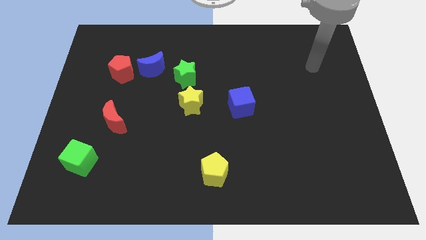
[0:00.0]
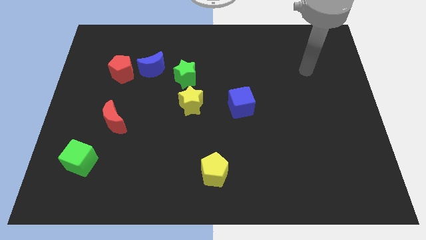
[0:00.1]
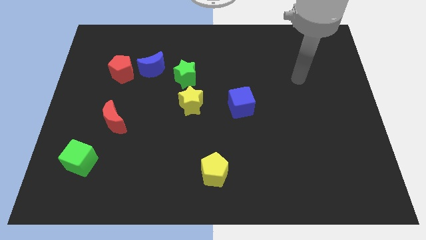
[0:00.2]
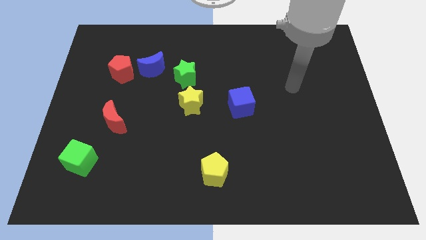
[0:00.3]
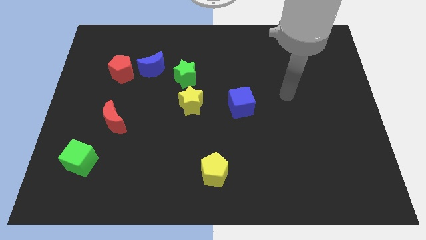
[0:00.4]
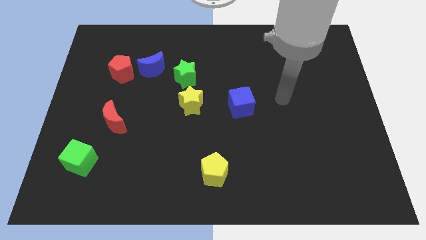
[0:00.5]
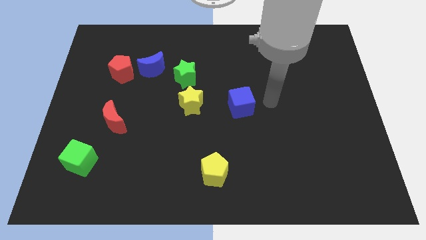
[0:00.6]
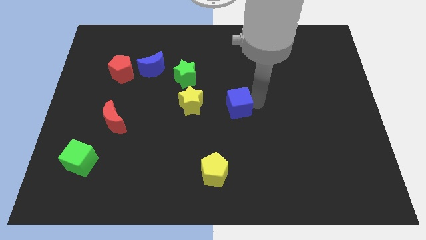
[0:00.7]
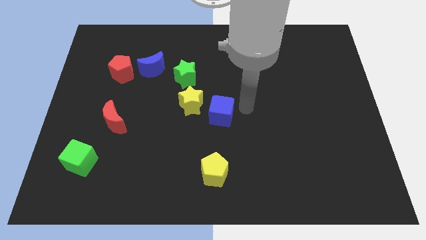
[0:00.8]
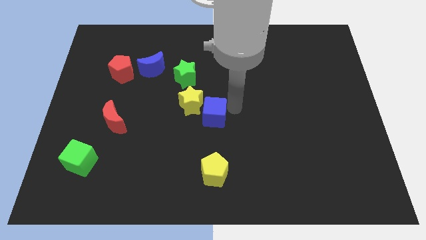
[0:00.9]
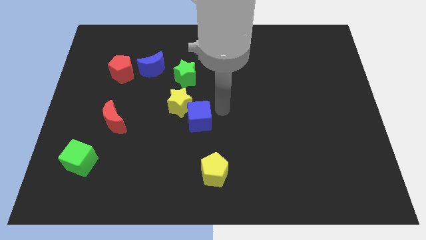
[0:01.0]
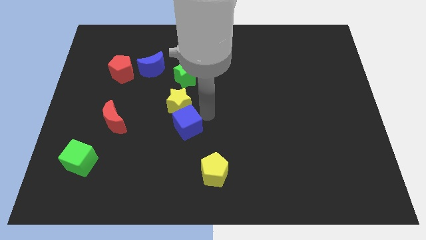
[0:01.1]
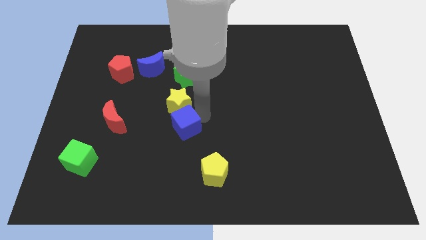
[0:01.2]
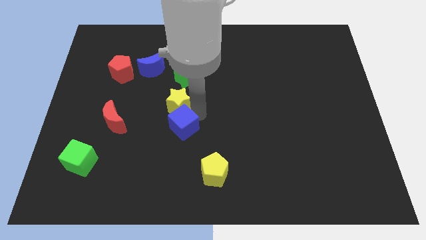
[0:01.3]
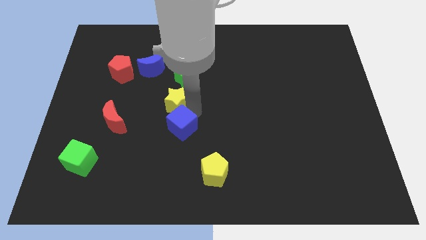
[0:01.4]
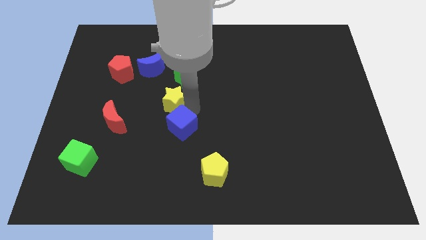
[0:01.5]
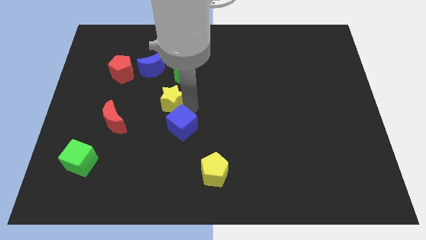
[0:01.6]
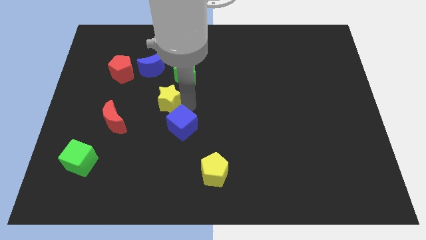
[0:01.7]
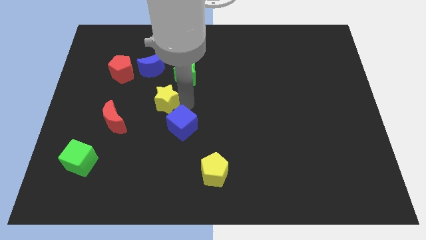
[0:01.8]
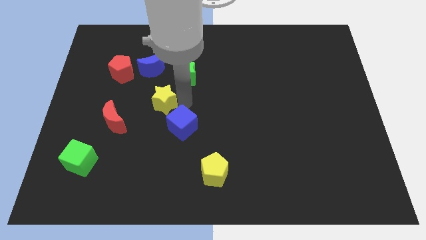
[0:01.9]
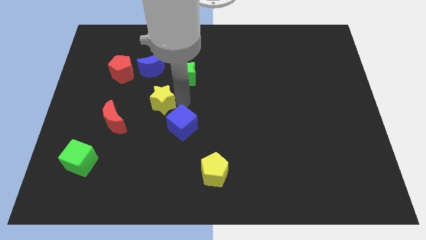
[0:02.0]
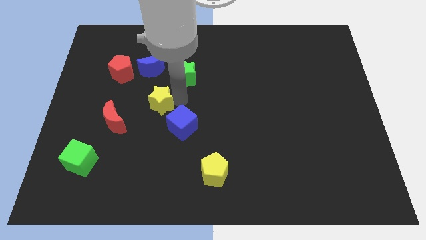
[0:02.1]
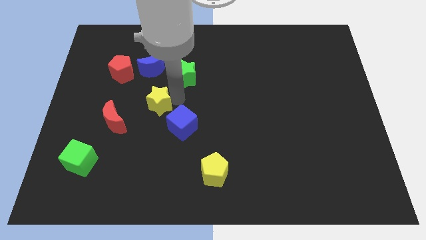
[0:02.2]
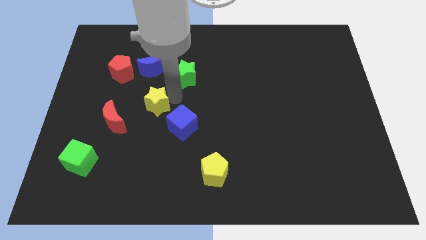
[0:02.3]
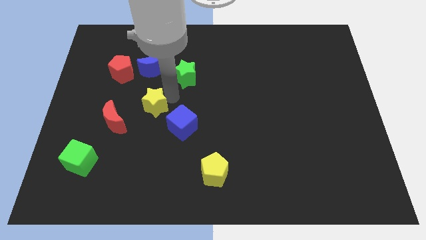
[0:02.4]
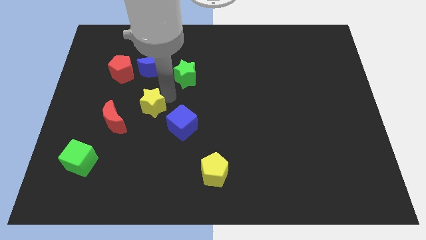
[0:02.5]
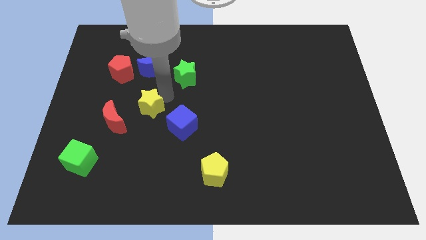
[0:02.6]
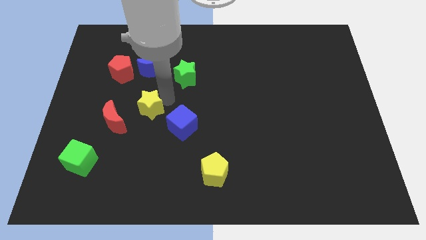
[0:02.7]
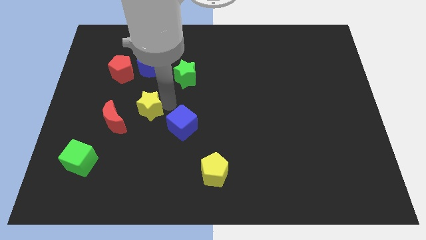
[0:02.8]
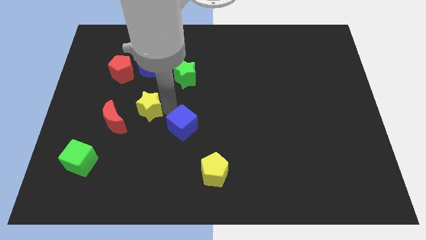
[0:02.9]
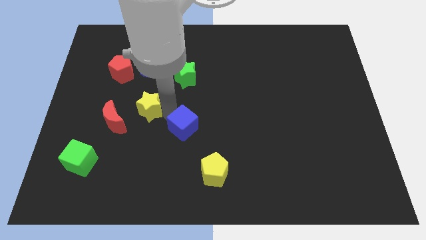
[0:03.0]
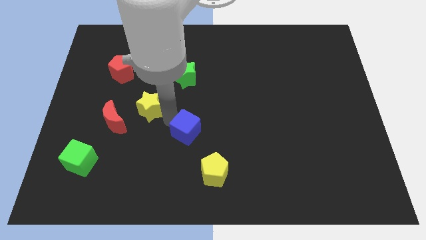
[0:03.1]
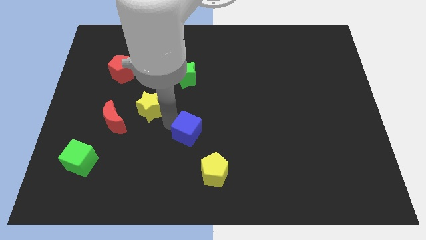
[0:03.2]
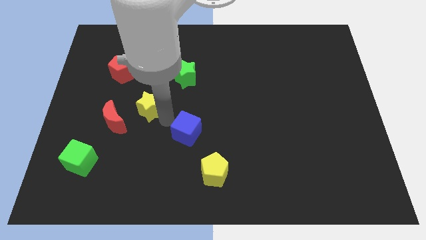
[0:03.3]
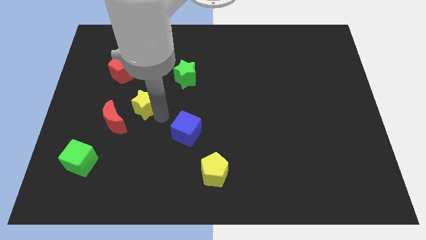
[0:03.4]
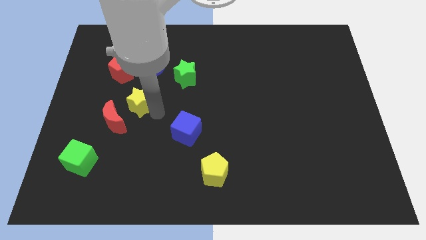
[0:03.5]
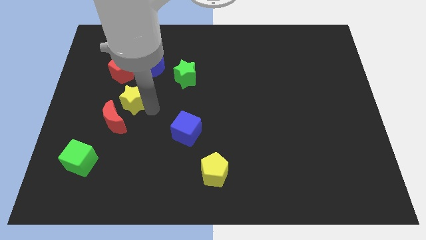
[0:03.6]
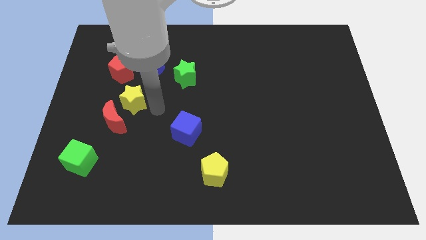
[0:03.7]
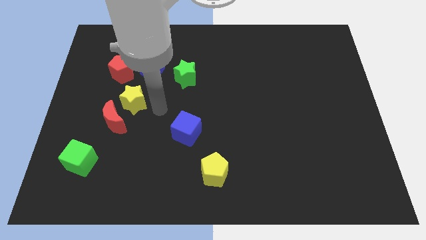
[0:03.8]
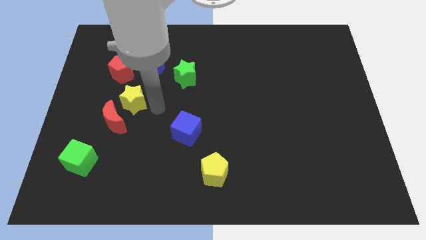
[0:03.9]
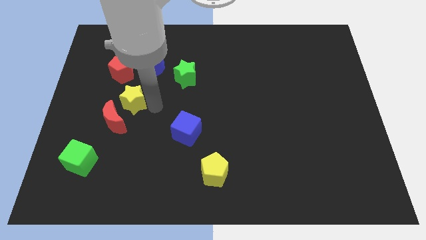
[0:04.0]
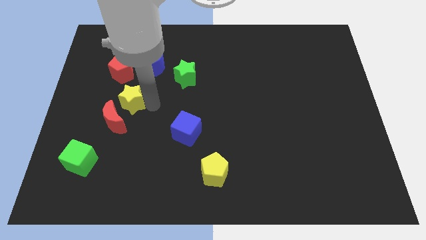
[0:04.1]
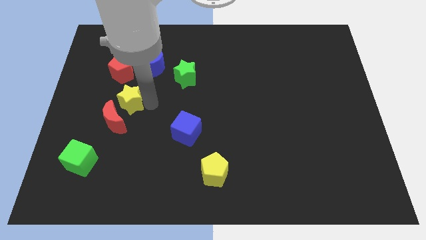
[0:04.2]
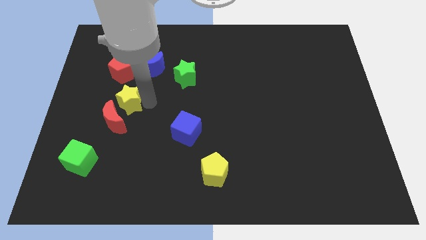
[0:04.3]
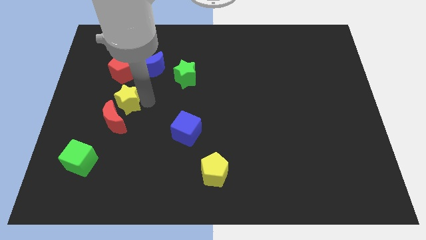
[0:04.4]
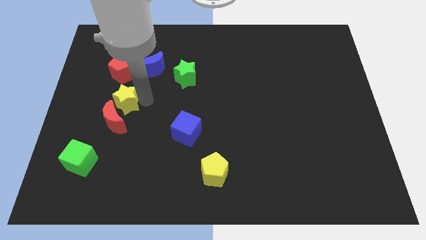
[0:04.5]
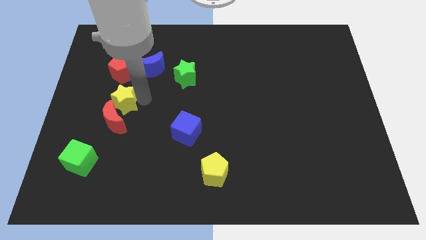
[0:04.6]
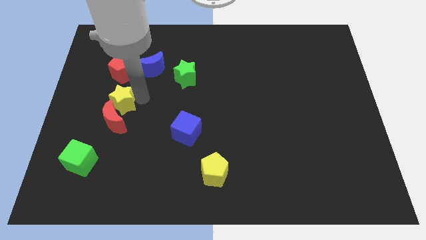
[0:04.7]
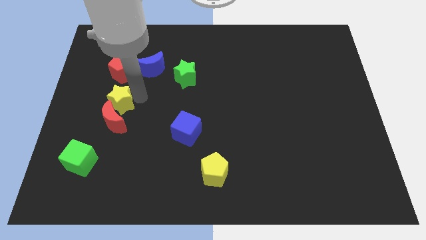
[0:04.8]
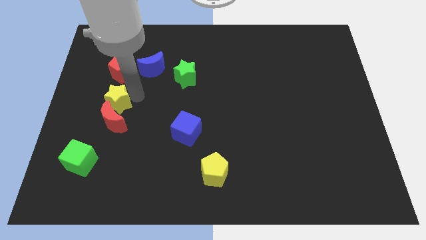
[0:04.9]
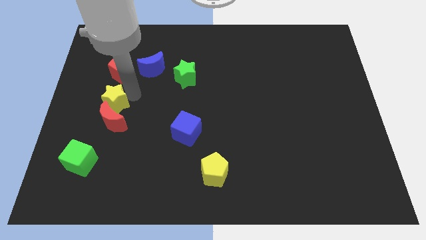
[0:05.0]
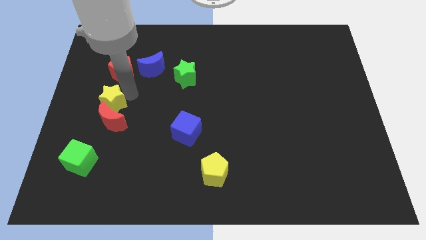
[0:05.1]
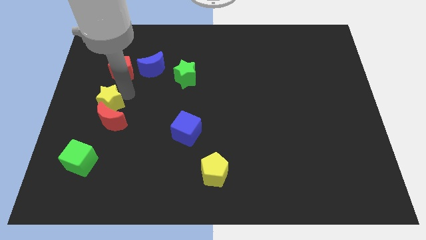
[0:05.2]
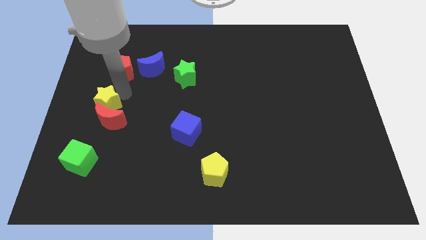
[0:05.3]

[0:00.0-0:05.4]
put the yellow star to the center left

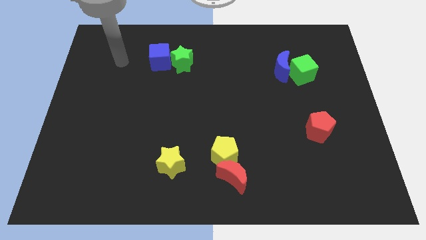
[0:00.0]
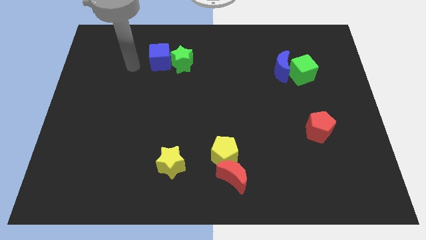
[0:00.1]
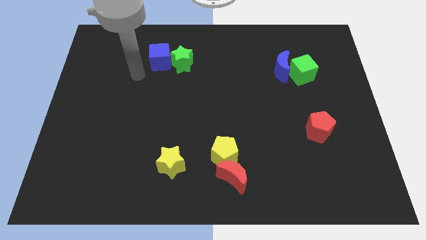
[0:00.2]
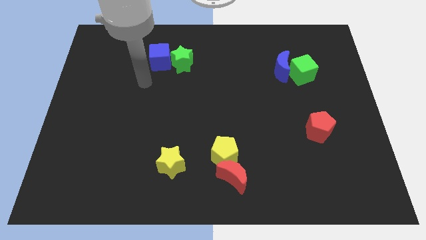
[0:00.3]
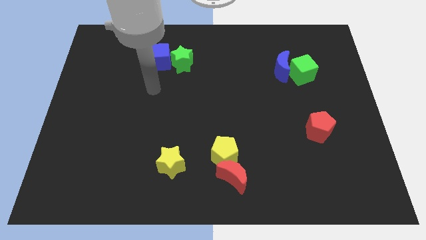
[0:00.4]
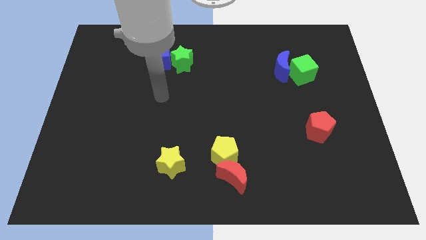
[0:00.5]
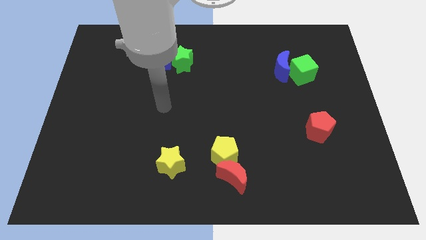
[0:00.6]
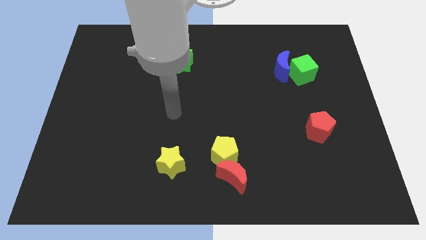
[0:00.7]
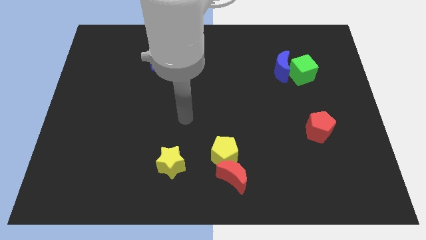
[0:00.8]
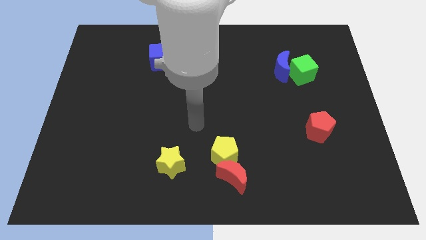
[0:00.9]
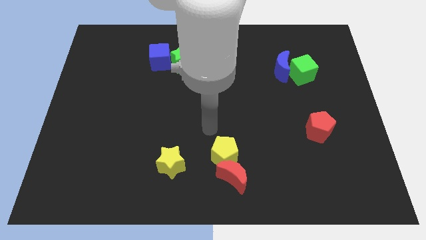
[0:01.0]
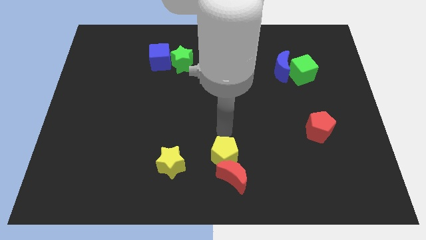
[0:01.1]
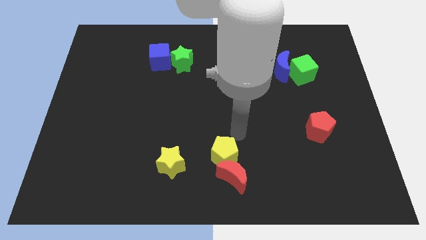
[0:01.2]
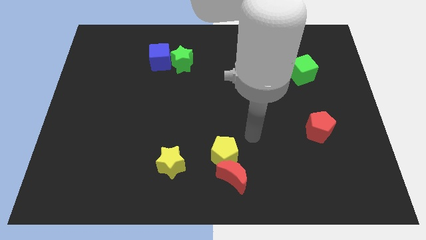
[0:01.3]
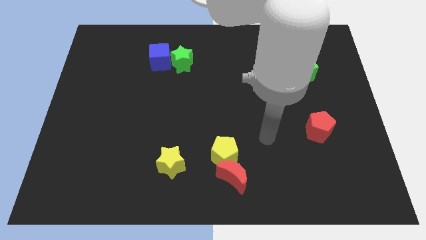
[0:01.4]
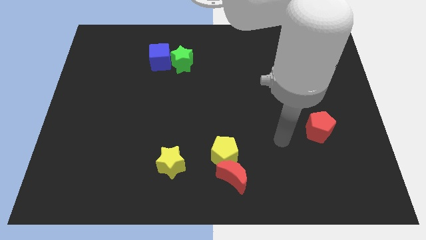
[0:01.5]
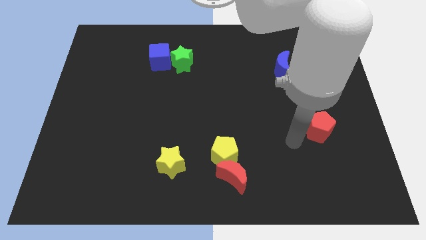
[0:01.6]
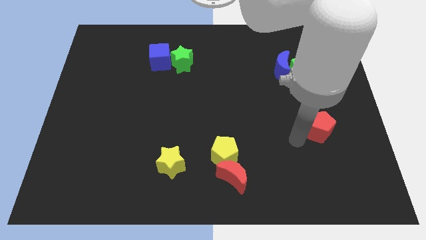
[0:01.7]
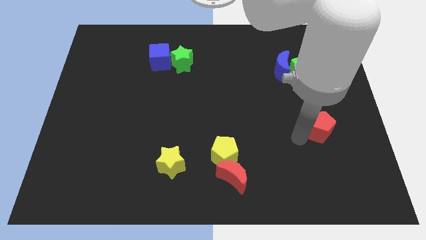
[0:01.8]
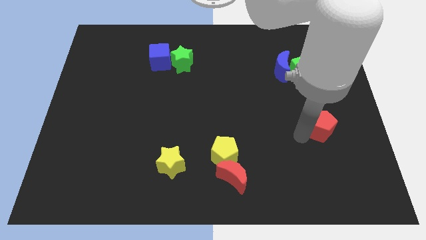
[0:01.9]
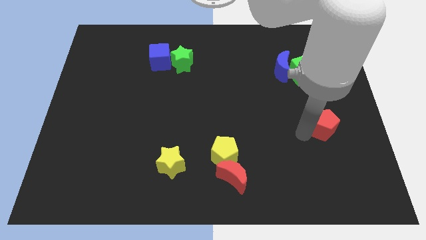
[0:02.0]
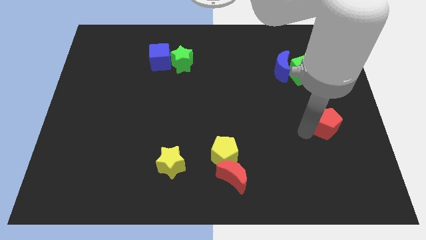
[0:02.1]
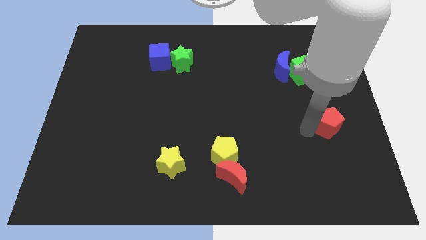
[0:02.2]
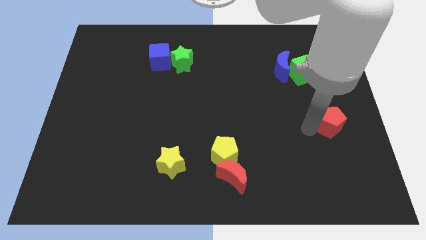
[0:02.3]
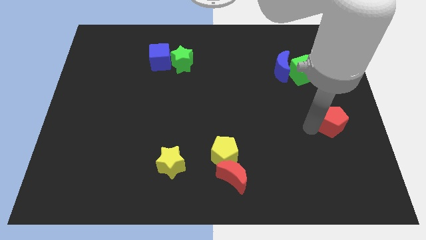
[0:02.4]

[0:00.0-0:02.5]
slide the red pentagon to the center right
